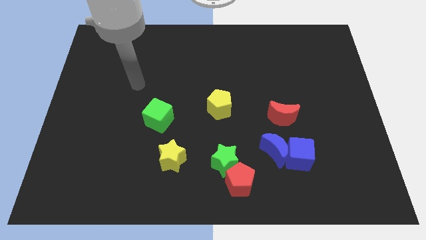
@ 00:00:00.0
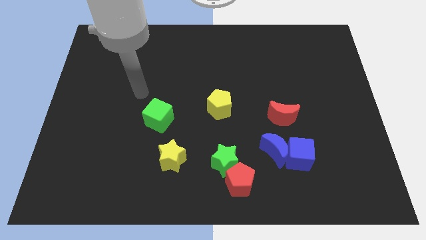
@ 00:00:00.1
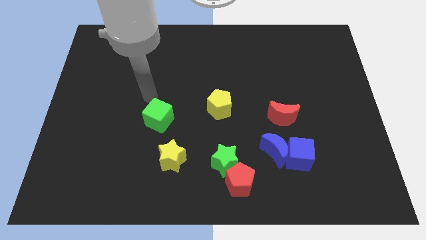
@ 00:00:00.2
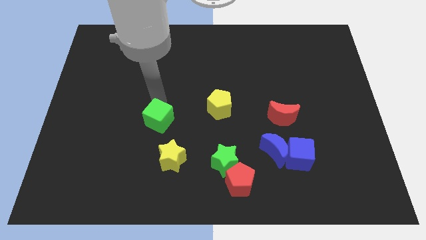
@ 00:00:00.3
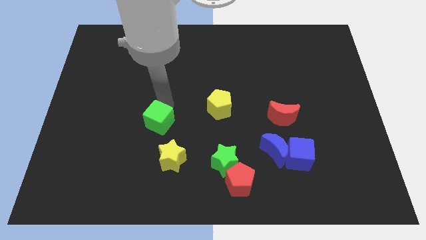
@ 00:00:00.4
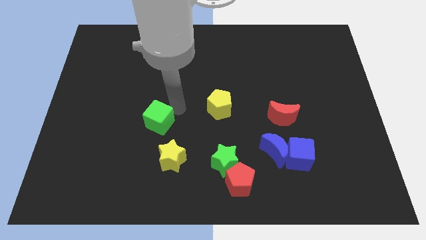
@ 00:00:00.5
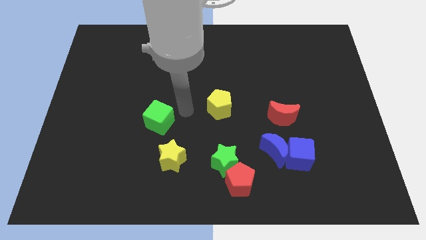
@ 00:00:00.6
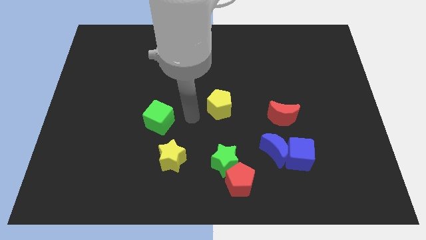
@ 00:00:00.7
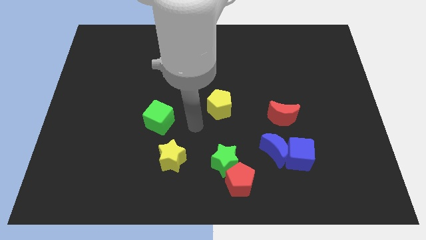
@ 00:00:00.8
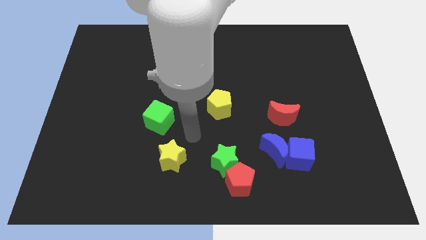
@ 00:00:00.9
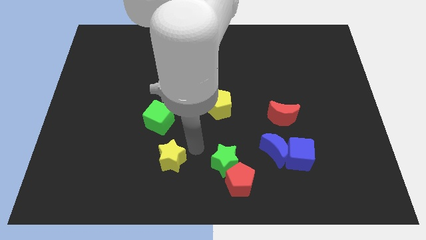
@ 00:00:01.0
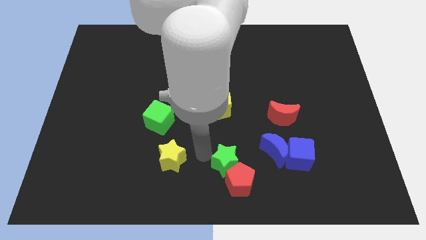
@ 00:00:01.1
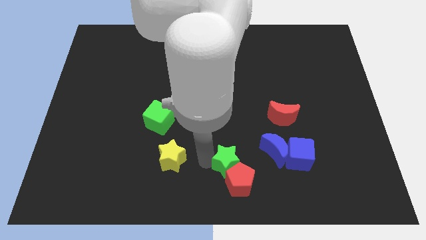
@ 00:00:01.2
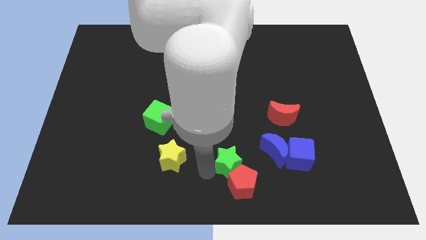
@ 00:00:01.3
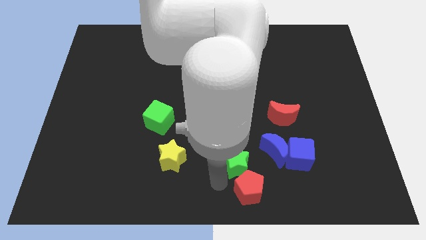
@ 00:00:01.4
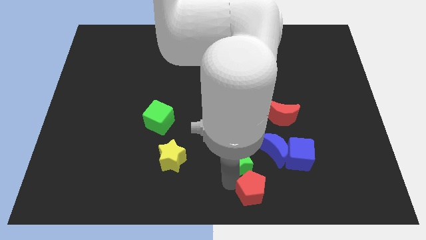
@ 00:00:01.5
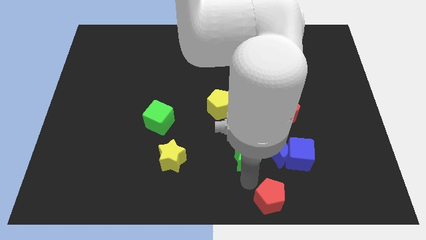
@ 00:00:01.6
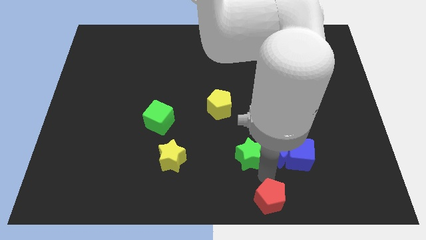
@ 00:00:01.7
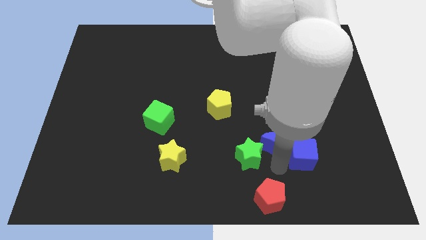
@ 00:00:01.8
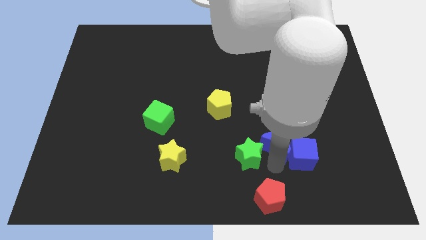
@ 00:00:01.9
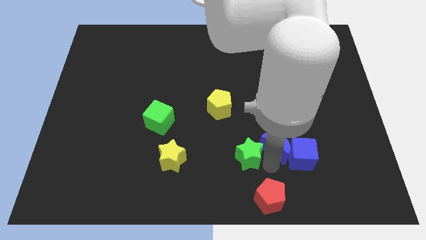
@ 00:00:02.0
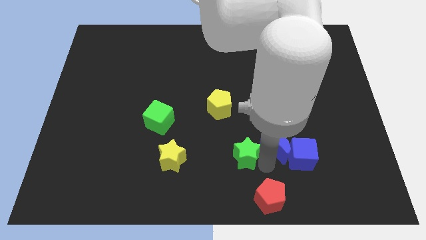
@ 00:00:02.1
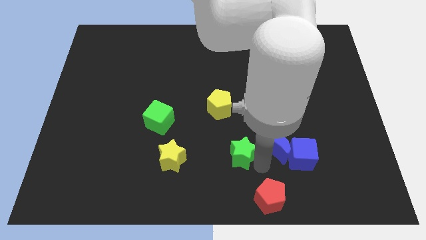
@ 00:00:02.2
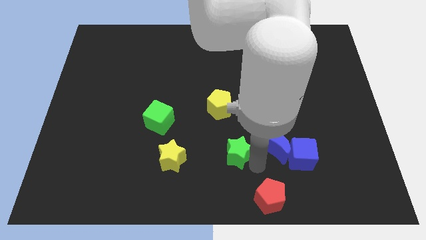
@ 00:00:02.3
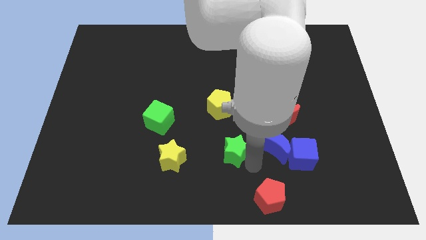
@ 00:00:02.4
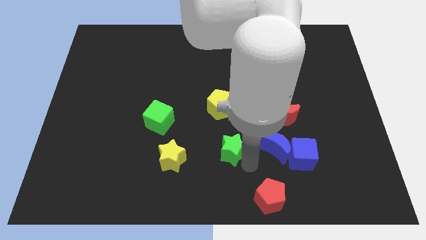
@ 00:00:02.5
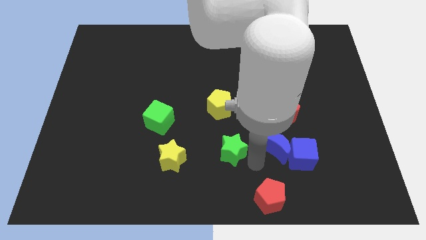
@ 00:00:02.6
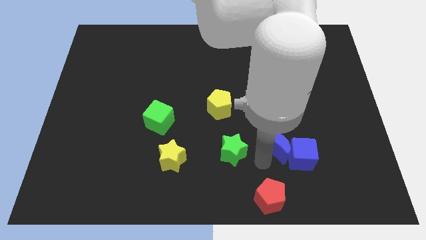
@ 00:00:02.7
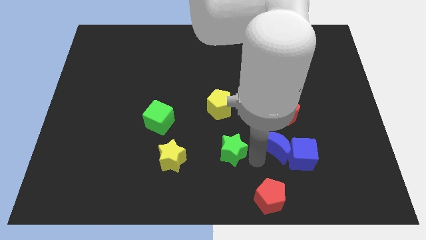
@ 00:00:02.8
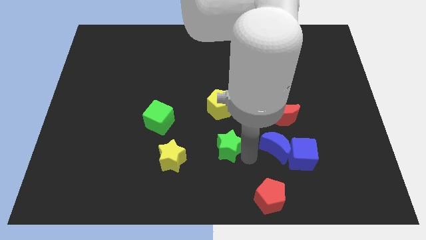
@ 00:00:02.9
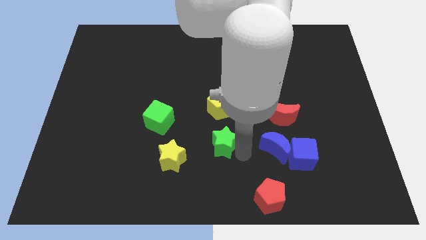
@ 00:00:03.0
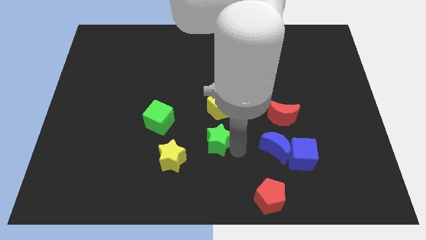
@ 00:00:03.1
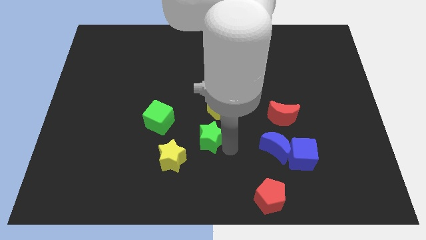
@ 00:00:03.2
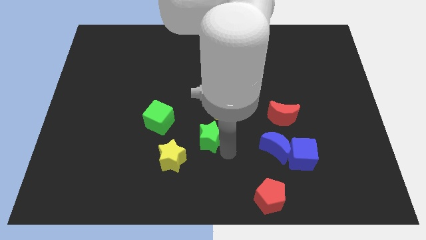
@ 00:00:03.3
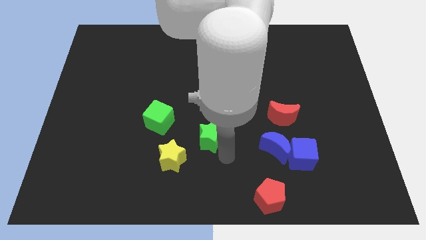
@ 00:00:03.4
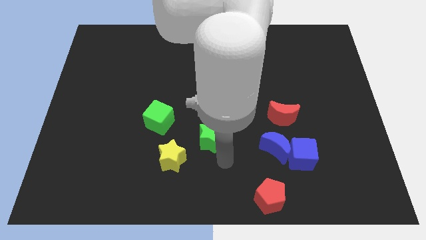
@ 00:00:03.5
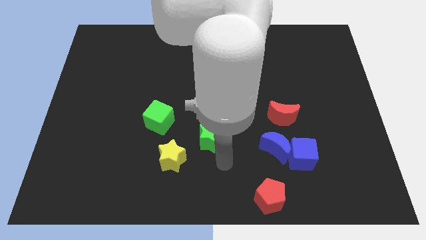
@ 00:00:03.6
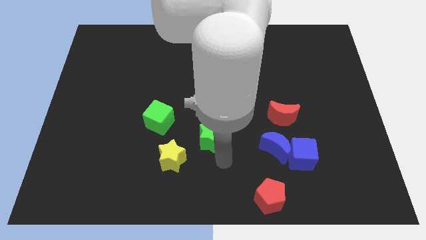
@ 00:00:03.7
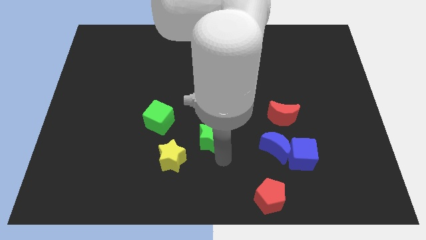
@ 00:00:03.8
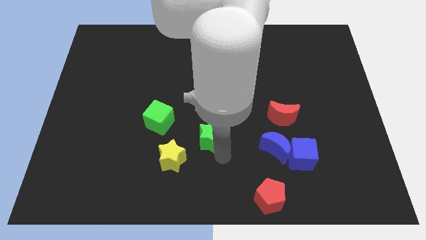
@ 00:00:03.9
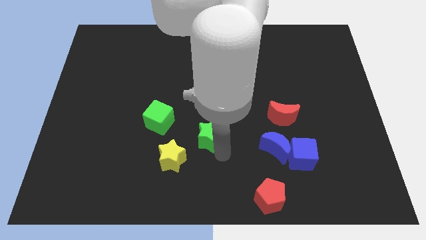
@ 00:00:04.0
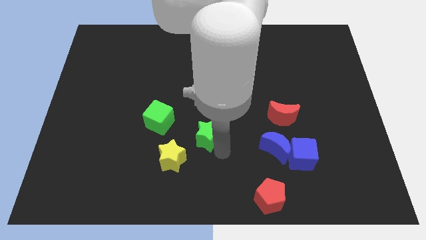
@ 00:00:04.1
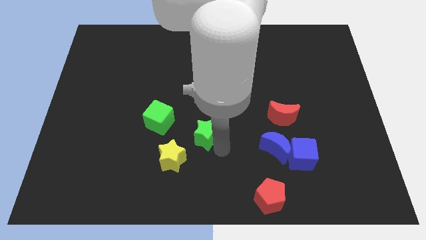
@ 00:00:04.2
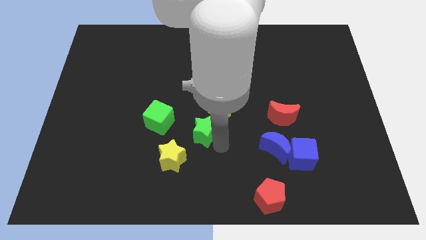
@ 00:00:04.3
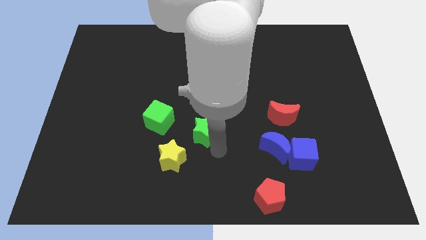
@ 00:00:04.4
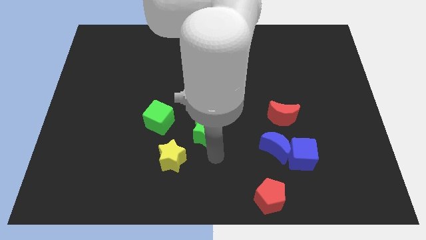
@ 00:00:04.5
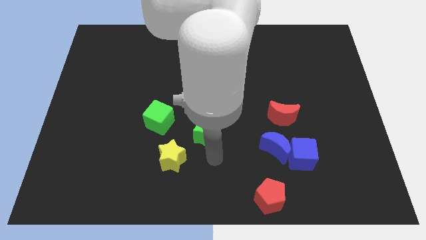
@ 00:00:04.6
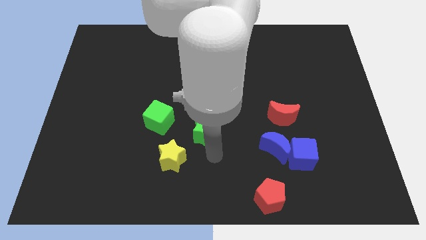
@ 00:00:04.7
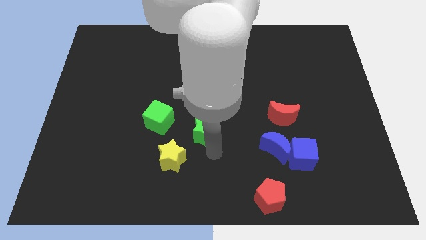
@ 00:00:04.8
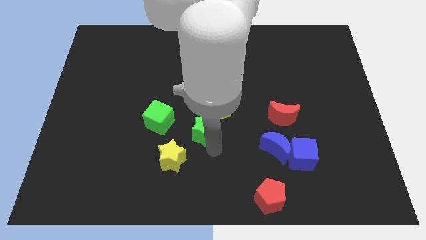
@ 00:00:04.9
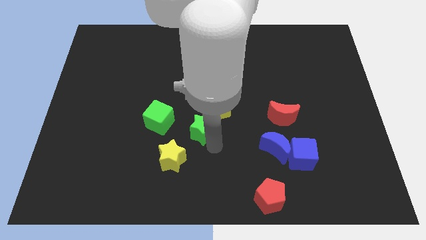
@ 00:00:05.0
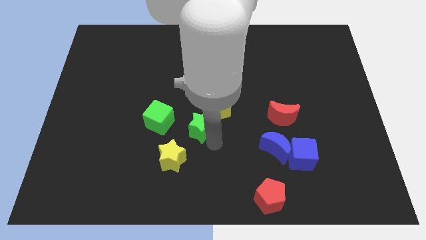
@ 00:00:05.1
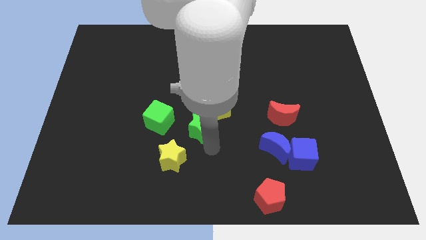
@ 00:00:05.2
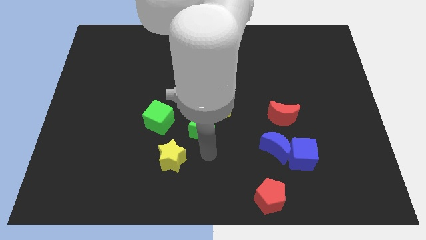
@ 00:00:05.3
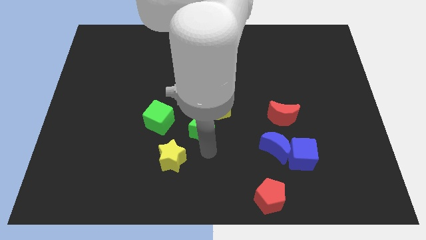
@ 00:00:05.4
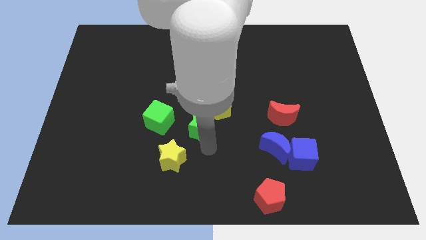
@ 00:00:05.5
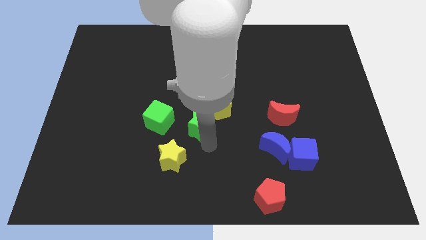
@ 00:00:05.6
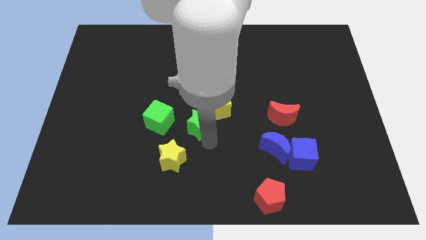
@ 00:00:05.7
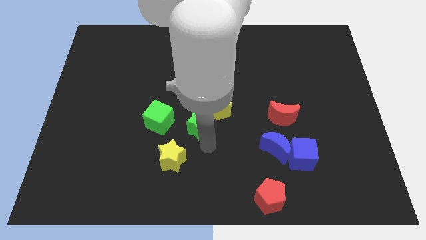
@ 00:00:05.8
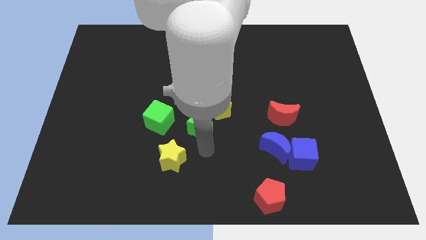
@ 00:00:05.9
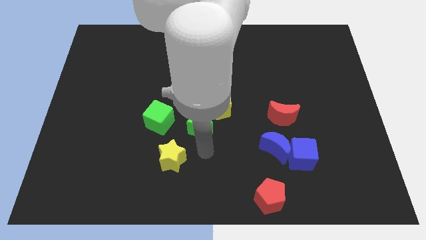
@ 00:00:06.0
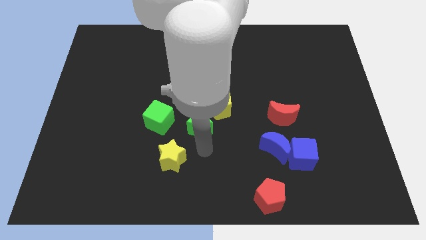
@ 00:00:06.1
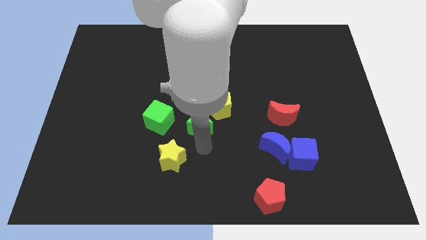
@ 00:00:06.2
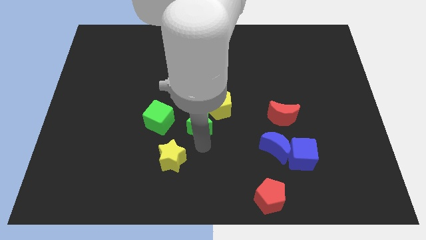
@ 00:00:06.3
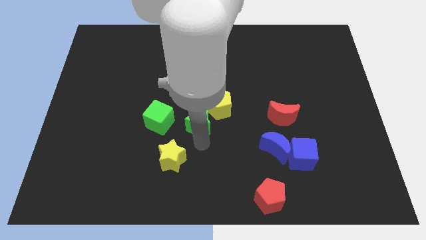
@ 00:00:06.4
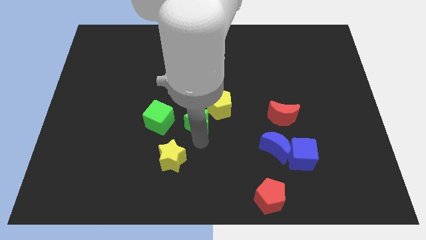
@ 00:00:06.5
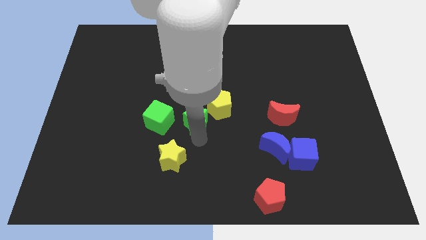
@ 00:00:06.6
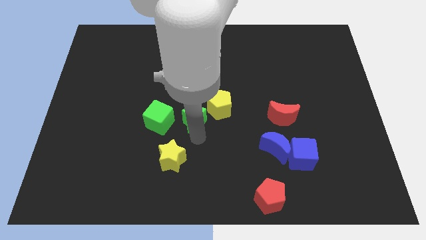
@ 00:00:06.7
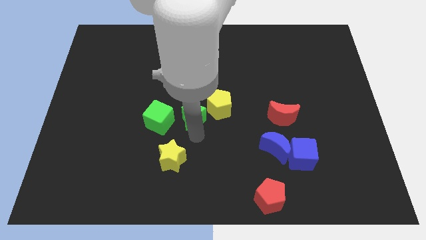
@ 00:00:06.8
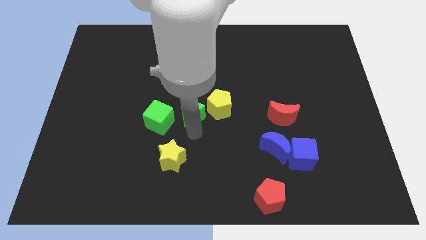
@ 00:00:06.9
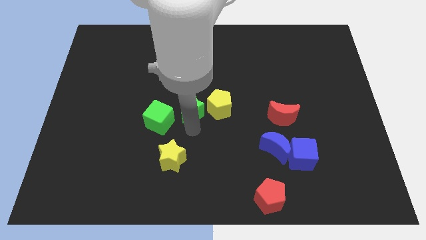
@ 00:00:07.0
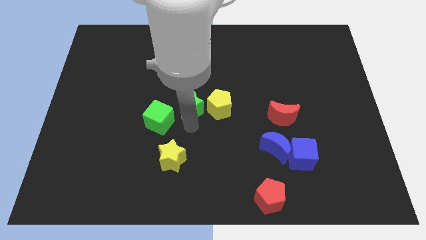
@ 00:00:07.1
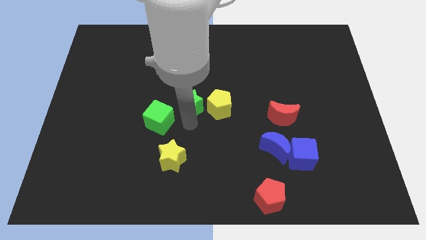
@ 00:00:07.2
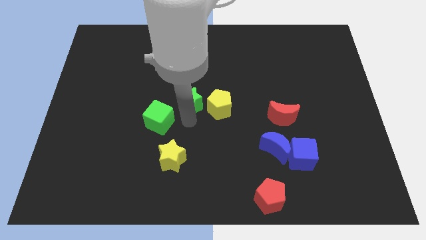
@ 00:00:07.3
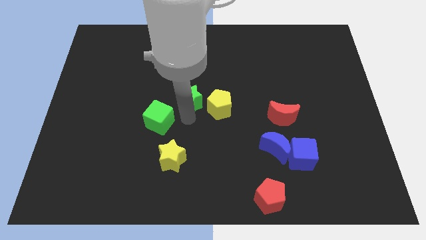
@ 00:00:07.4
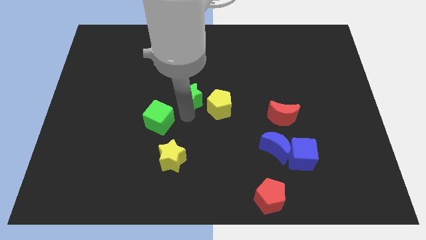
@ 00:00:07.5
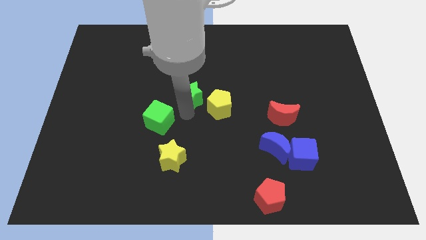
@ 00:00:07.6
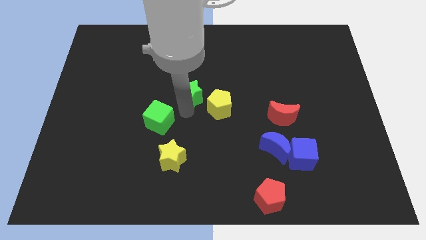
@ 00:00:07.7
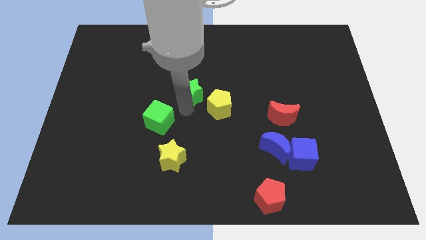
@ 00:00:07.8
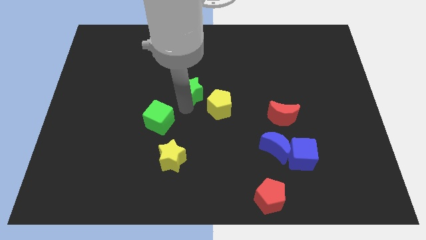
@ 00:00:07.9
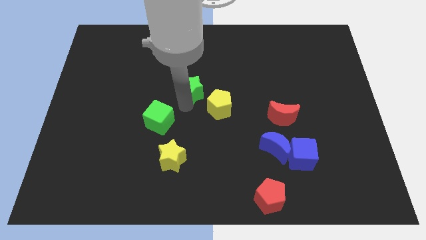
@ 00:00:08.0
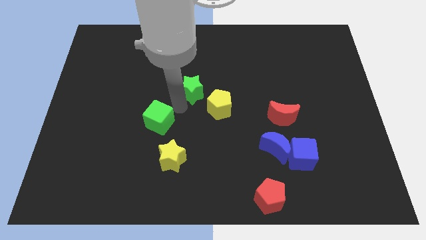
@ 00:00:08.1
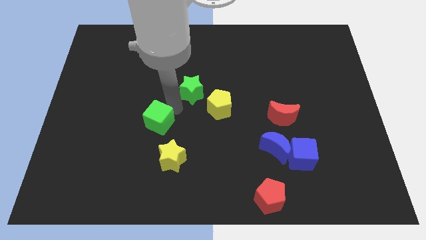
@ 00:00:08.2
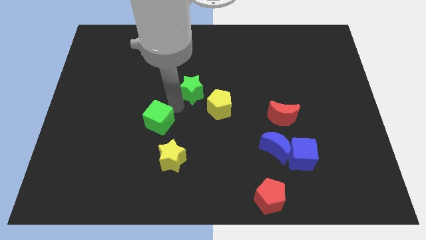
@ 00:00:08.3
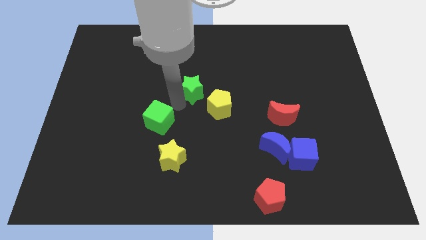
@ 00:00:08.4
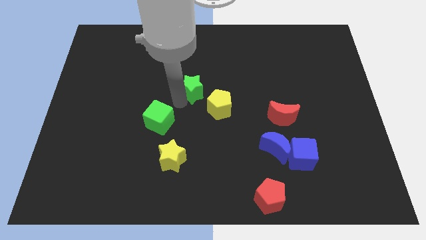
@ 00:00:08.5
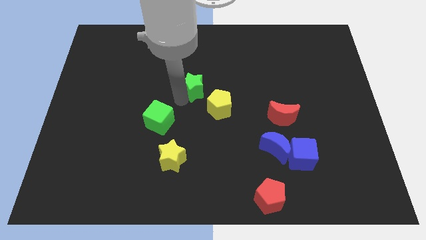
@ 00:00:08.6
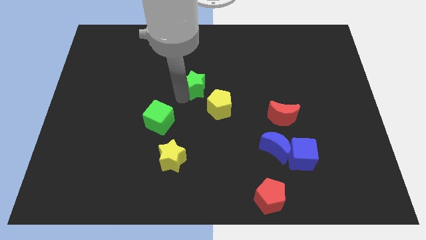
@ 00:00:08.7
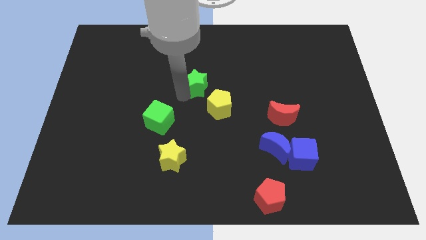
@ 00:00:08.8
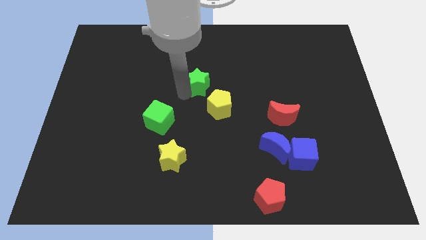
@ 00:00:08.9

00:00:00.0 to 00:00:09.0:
slide the green star upwards
